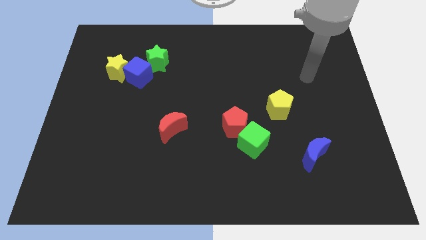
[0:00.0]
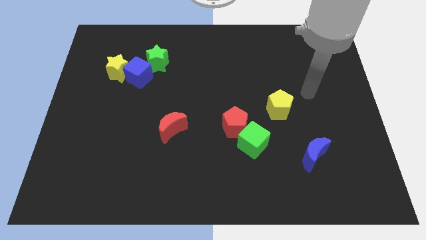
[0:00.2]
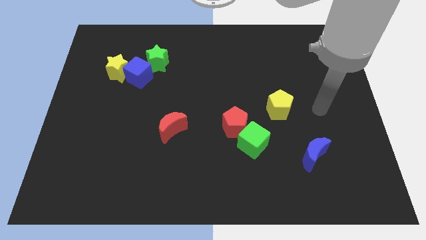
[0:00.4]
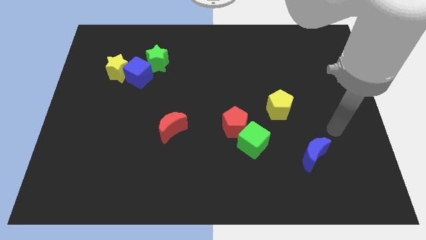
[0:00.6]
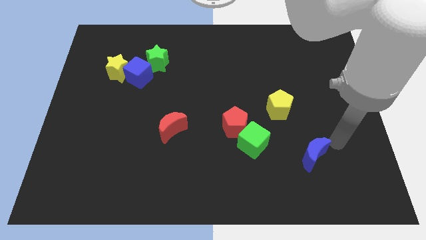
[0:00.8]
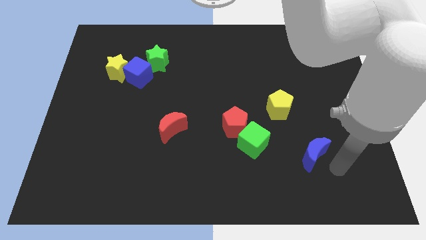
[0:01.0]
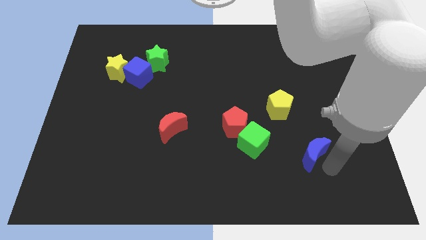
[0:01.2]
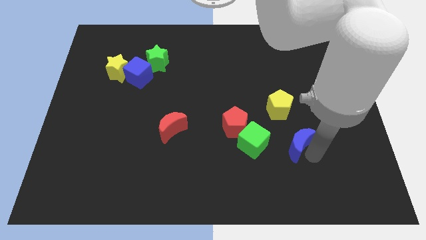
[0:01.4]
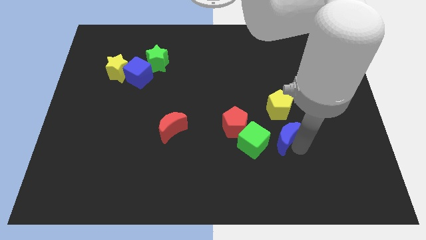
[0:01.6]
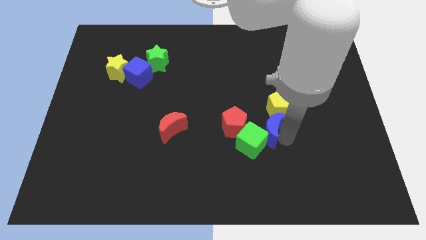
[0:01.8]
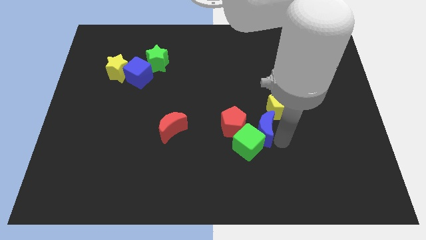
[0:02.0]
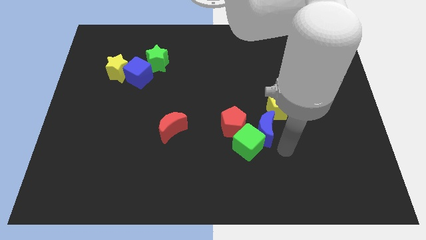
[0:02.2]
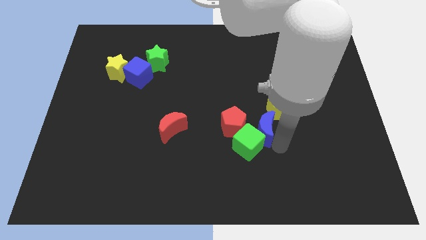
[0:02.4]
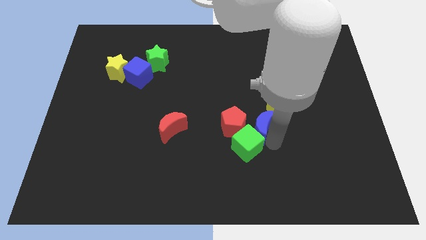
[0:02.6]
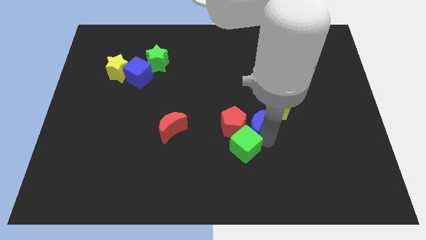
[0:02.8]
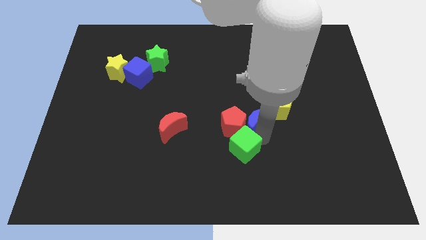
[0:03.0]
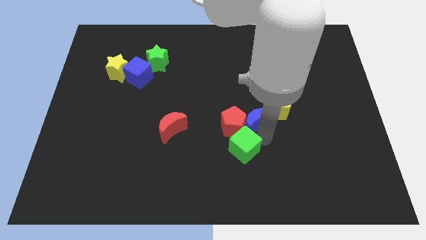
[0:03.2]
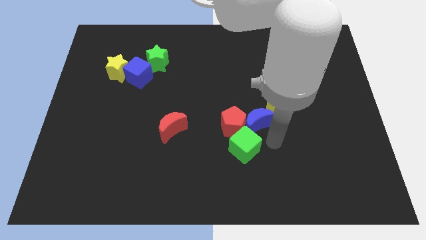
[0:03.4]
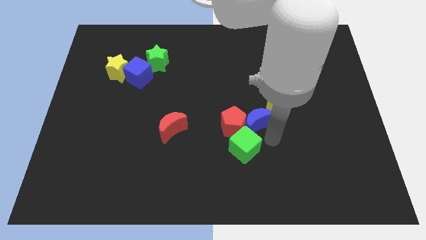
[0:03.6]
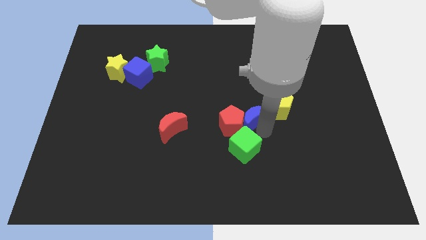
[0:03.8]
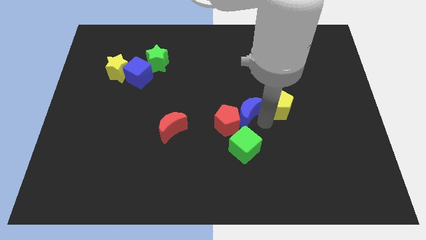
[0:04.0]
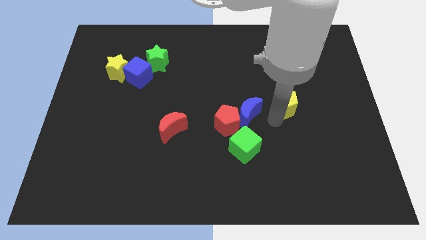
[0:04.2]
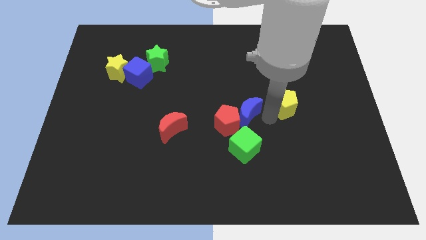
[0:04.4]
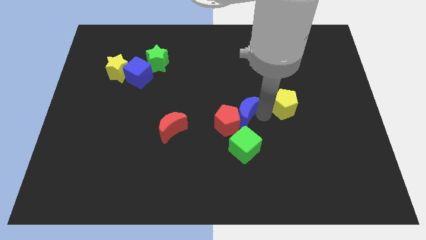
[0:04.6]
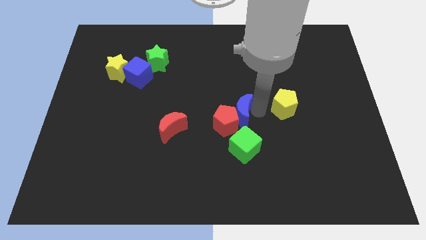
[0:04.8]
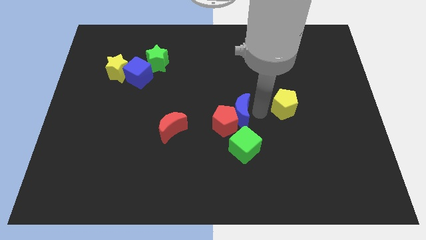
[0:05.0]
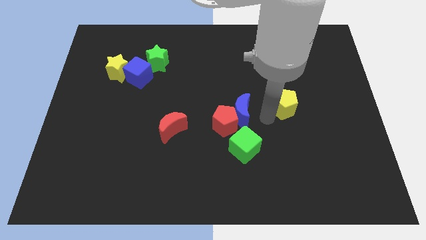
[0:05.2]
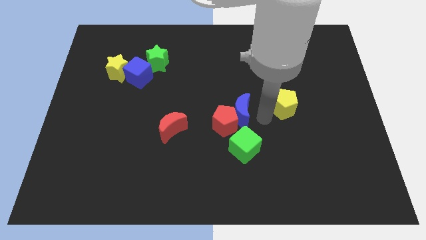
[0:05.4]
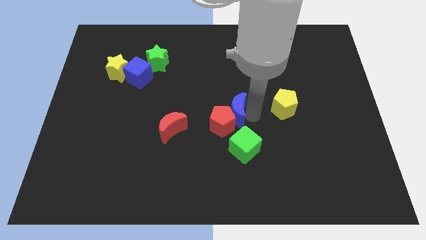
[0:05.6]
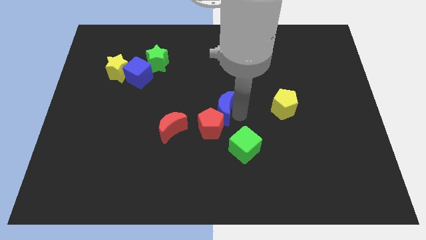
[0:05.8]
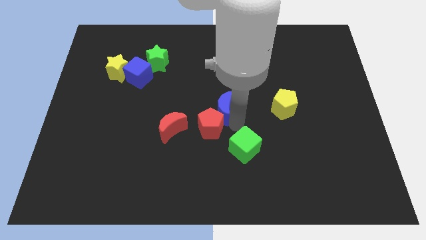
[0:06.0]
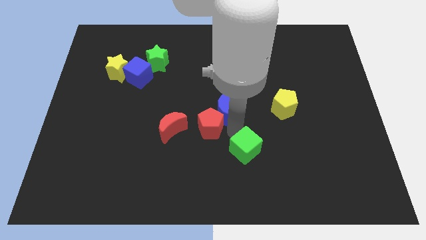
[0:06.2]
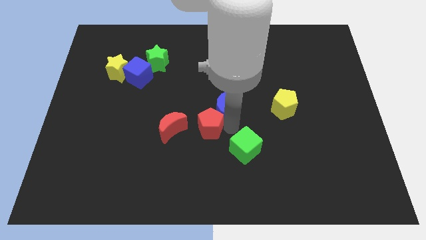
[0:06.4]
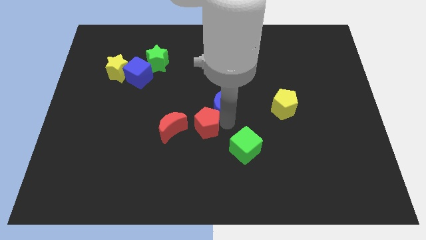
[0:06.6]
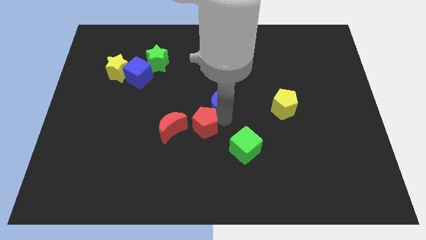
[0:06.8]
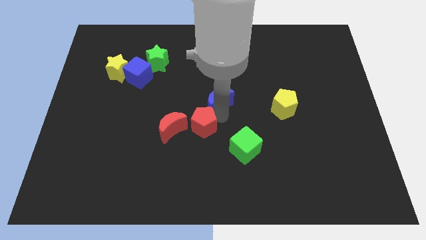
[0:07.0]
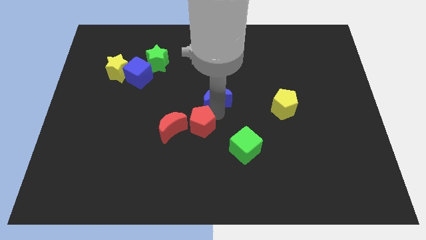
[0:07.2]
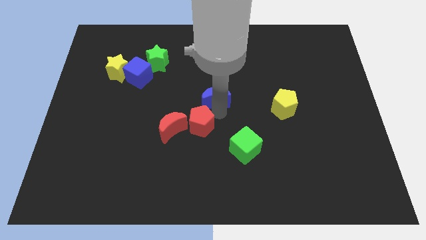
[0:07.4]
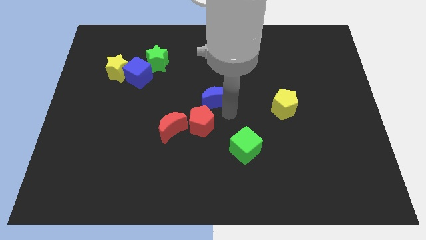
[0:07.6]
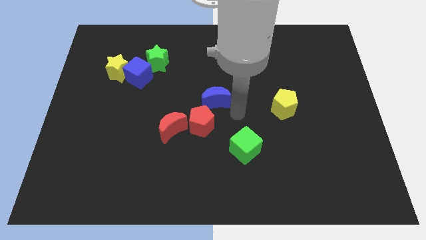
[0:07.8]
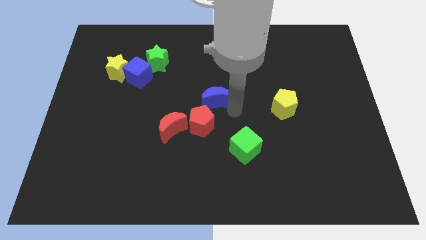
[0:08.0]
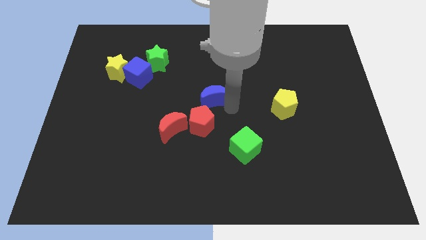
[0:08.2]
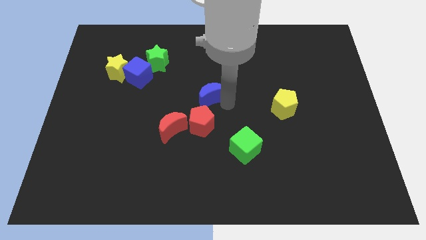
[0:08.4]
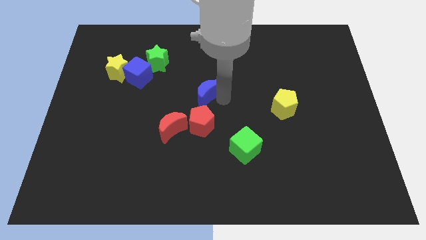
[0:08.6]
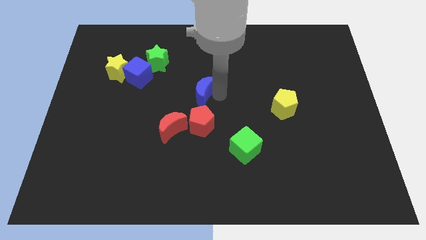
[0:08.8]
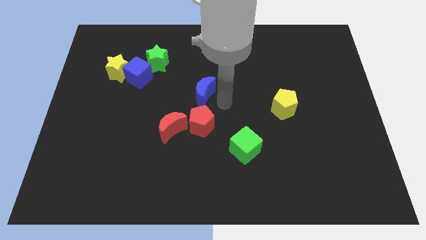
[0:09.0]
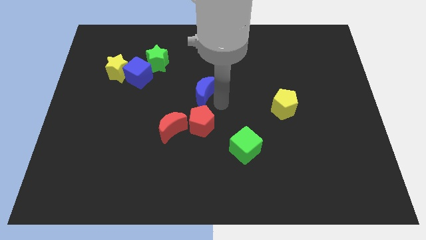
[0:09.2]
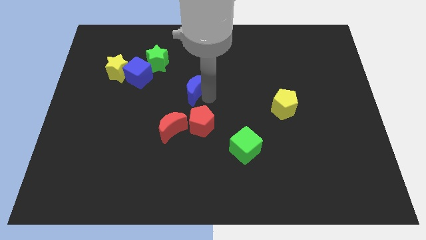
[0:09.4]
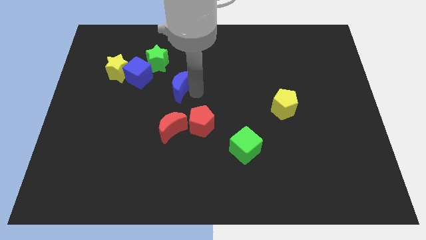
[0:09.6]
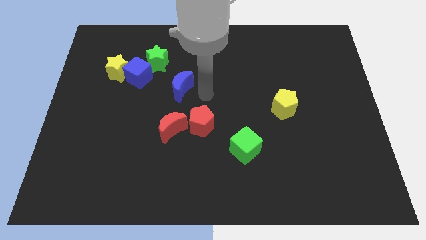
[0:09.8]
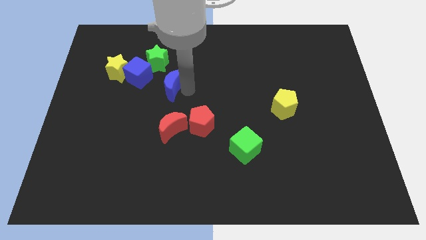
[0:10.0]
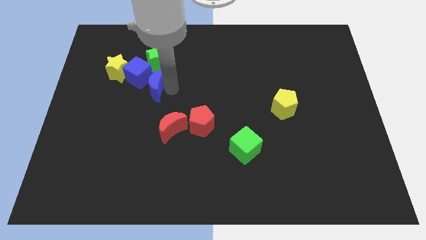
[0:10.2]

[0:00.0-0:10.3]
put the blue moon close to the blue cube

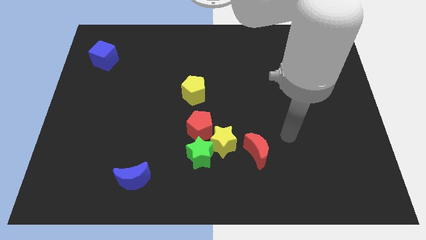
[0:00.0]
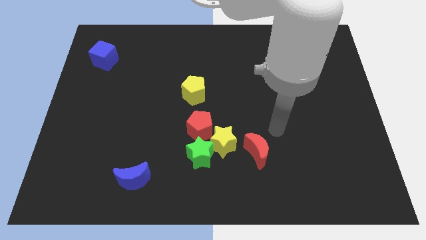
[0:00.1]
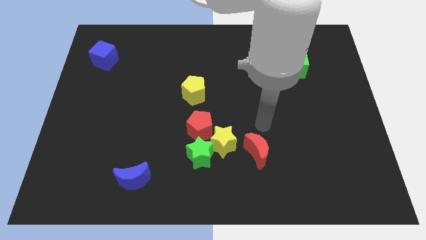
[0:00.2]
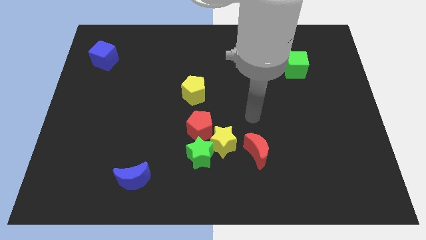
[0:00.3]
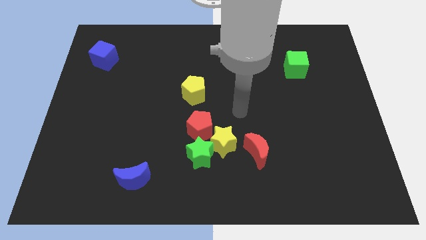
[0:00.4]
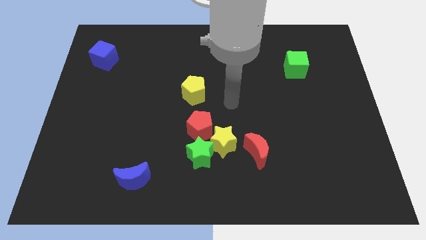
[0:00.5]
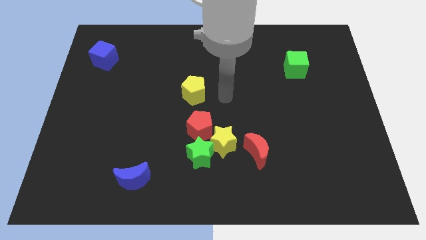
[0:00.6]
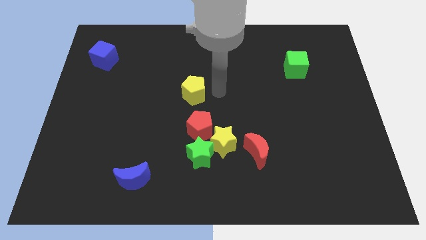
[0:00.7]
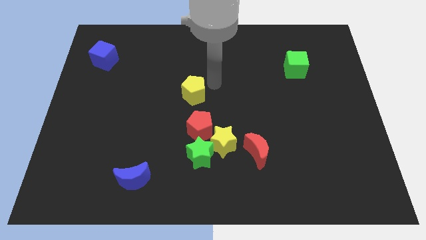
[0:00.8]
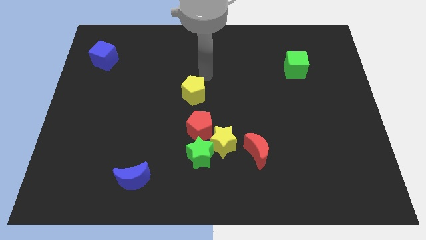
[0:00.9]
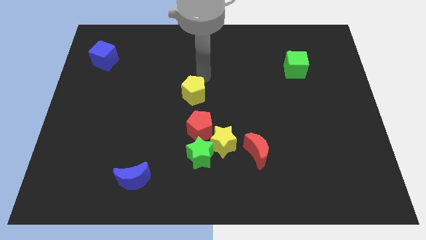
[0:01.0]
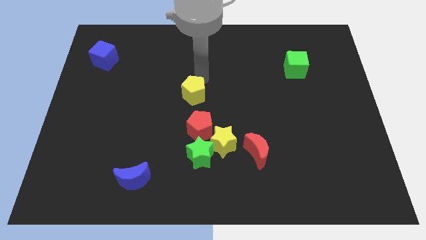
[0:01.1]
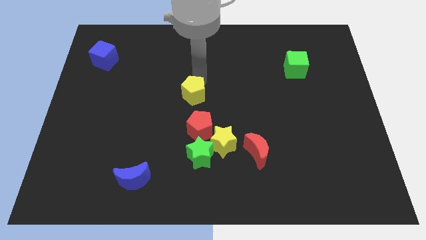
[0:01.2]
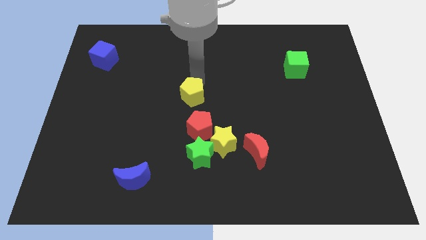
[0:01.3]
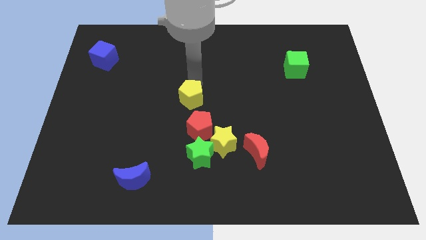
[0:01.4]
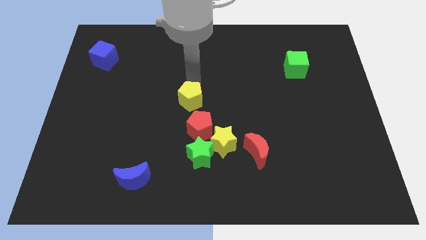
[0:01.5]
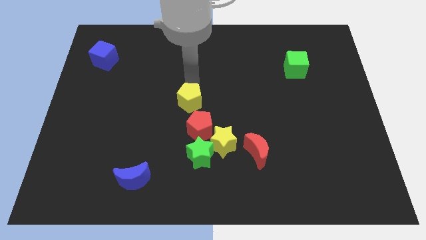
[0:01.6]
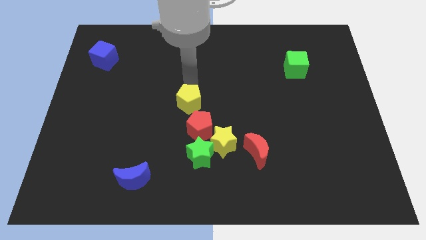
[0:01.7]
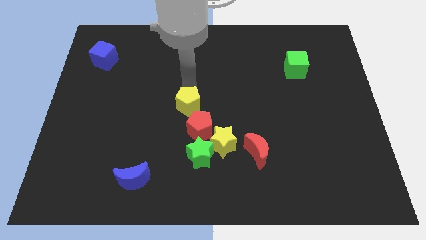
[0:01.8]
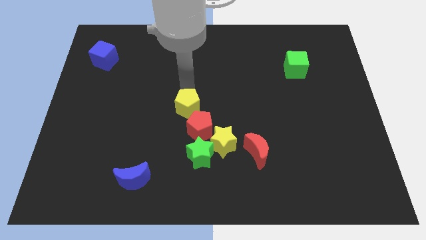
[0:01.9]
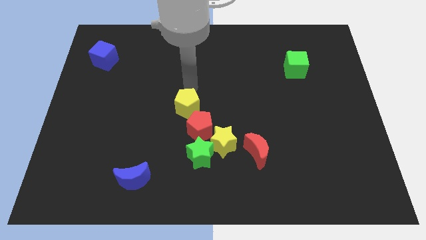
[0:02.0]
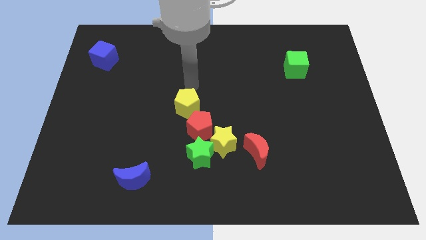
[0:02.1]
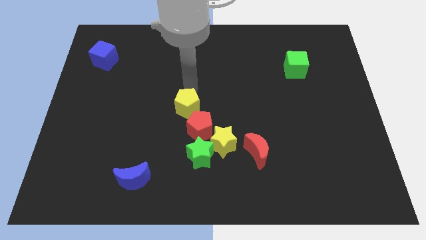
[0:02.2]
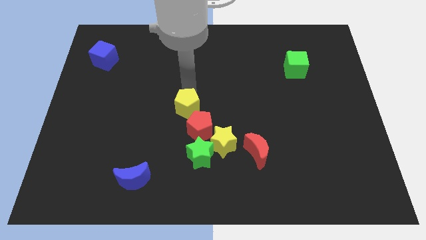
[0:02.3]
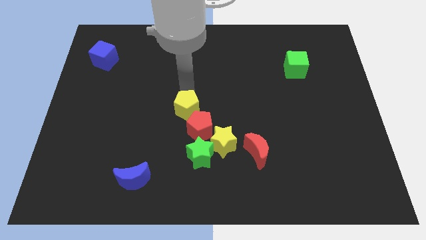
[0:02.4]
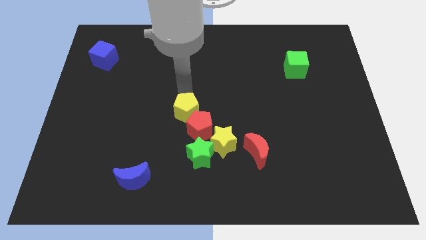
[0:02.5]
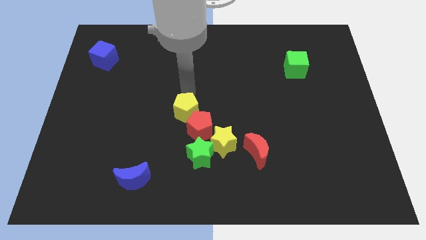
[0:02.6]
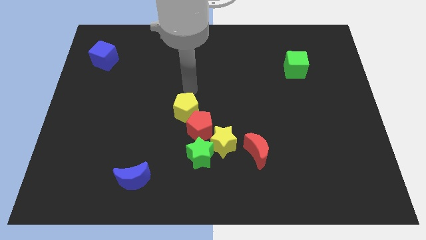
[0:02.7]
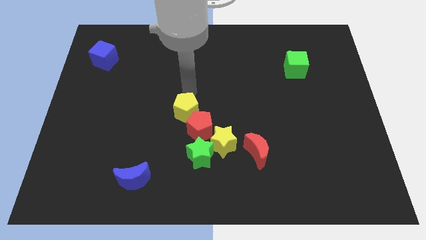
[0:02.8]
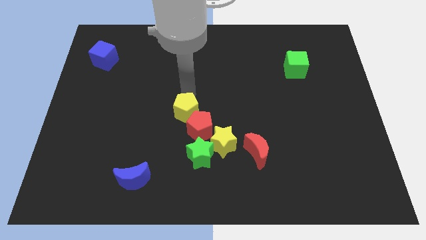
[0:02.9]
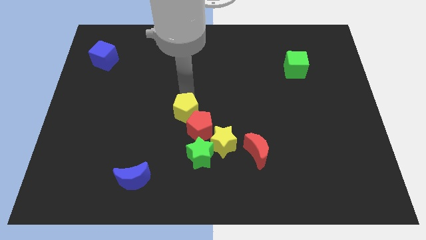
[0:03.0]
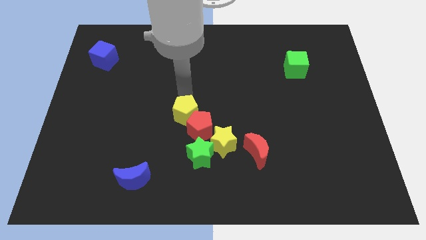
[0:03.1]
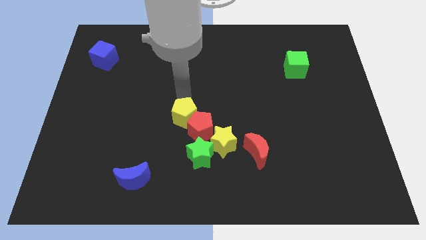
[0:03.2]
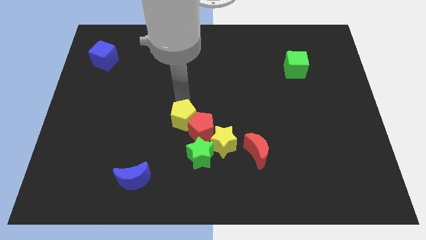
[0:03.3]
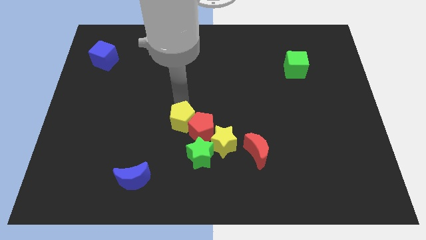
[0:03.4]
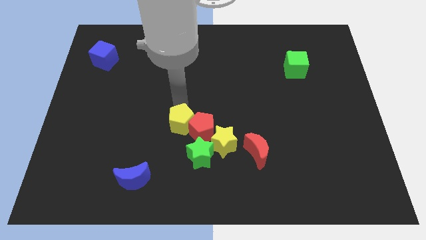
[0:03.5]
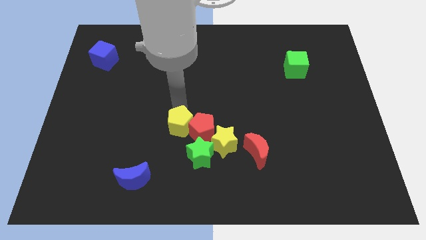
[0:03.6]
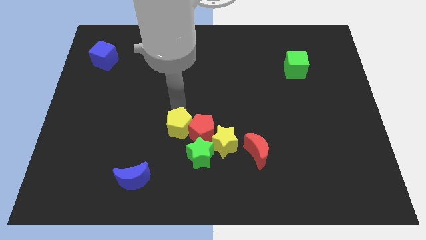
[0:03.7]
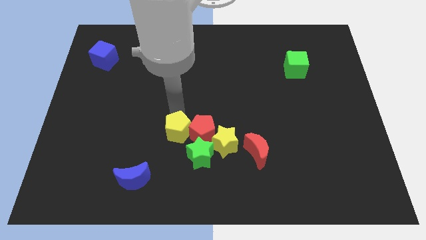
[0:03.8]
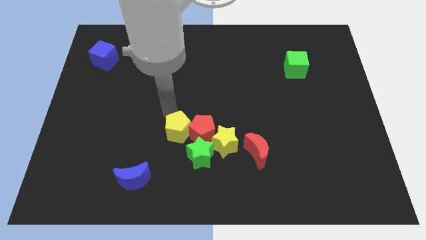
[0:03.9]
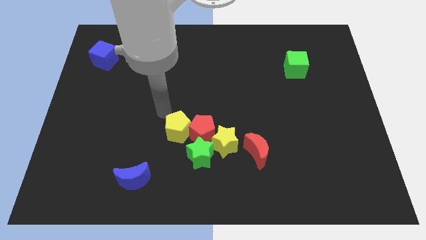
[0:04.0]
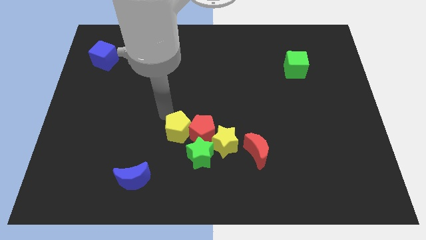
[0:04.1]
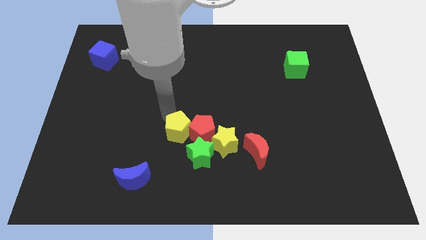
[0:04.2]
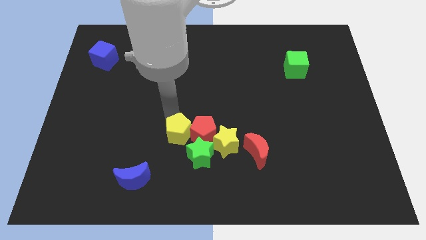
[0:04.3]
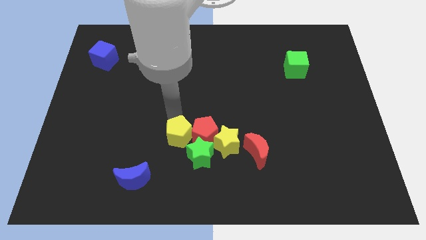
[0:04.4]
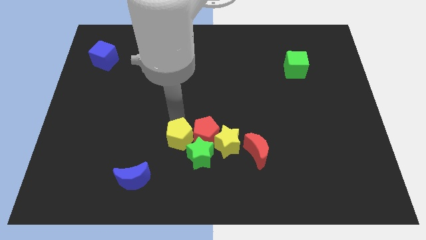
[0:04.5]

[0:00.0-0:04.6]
put the yellow pentagon close to the green star
